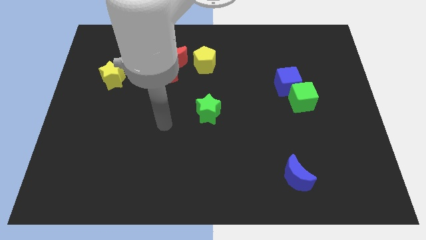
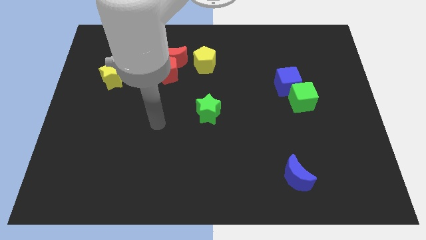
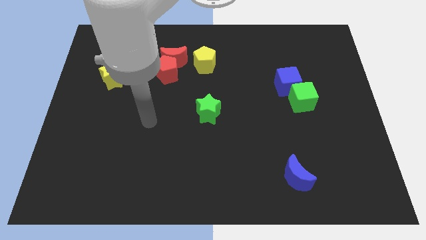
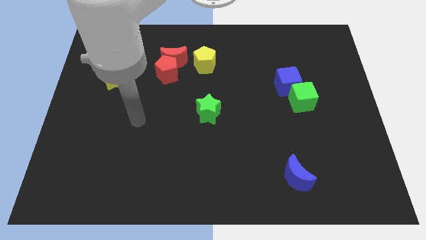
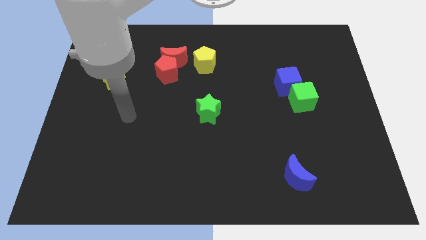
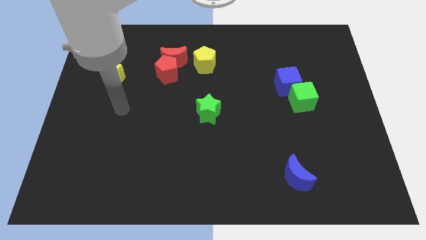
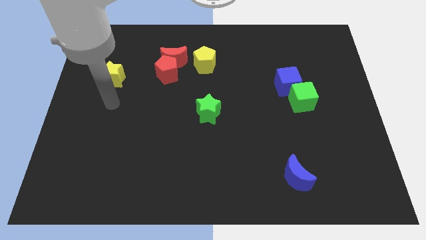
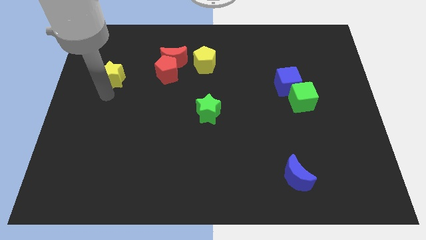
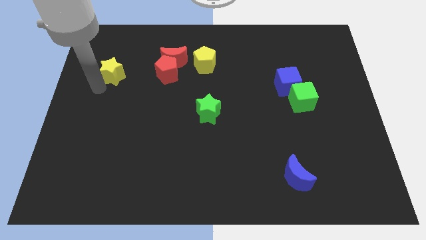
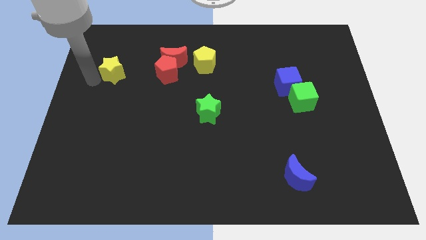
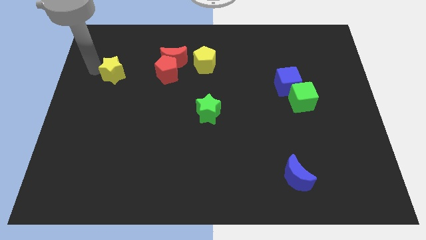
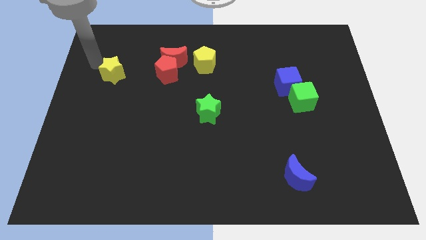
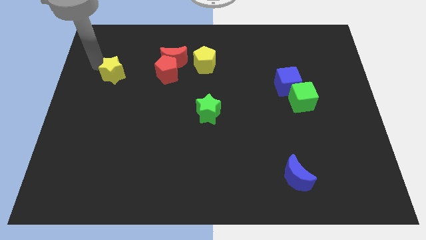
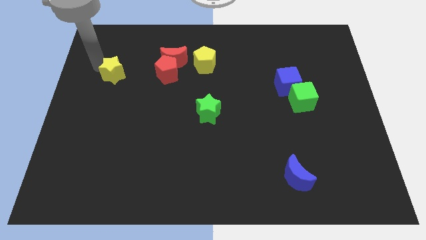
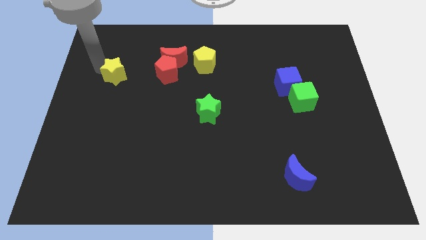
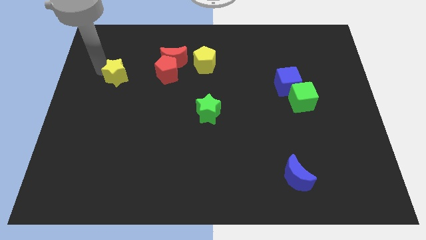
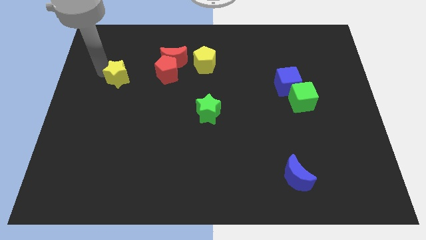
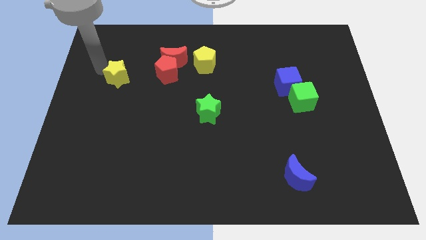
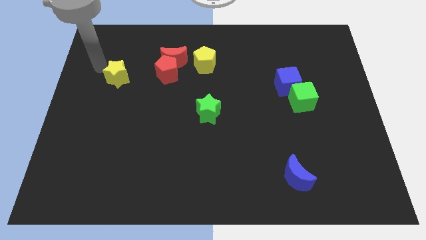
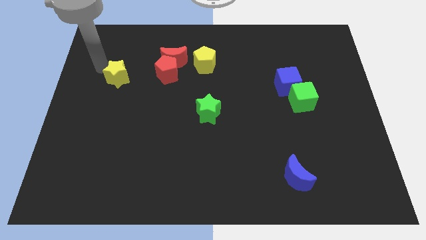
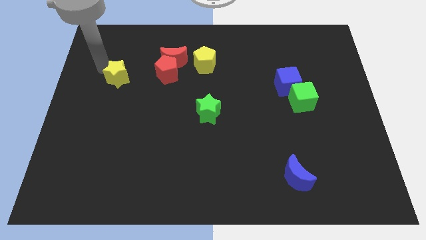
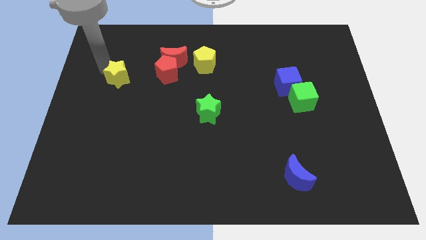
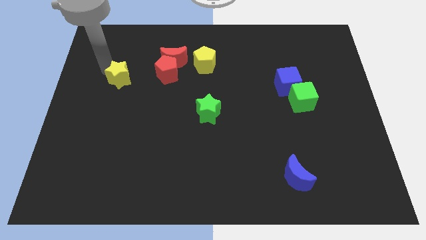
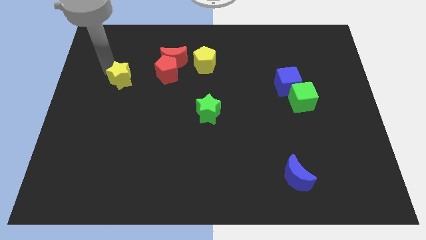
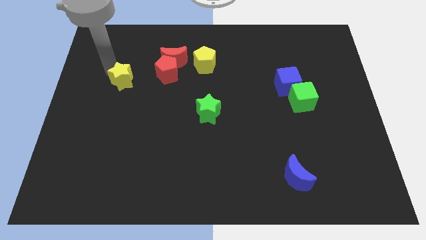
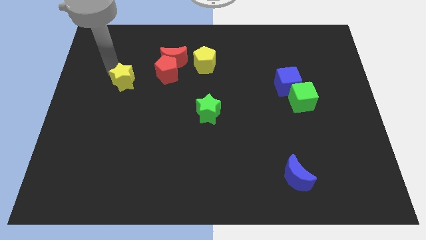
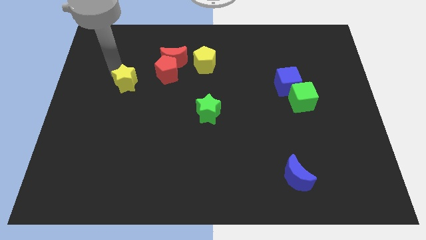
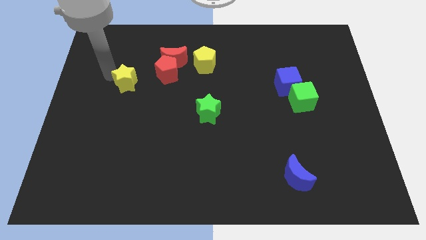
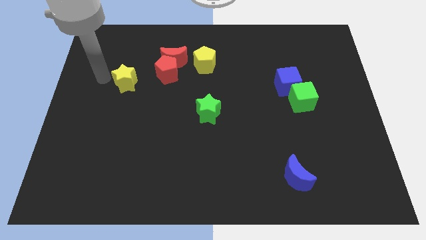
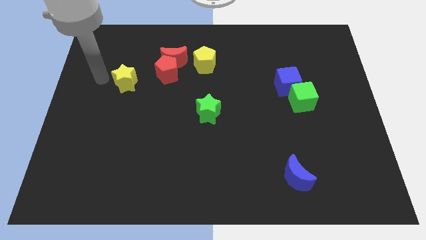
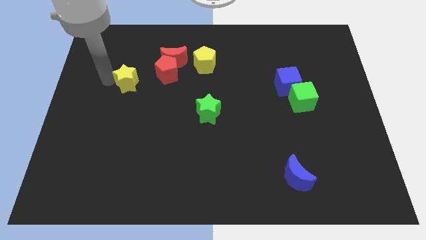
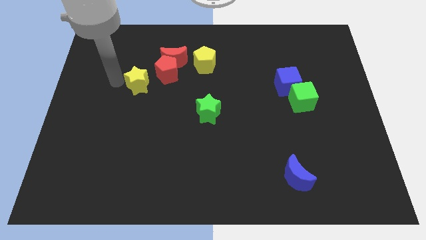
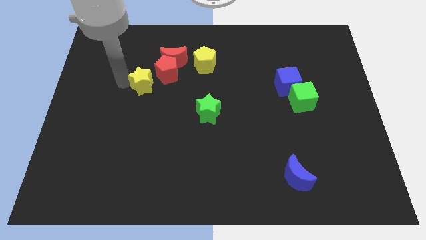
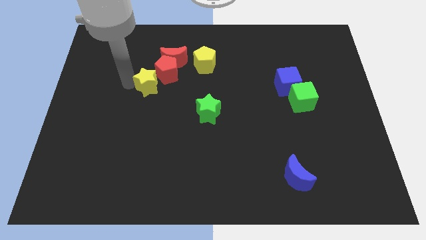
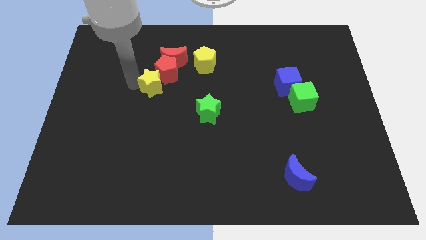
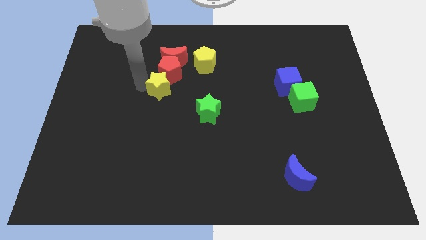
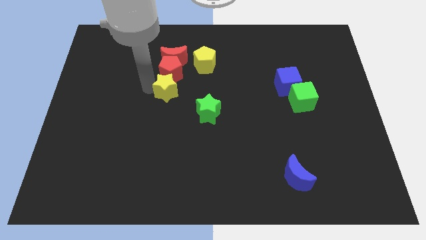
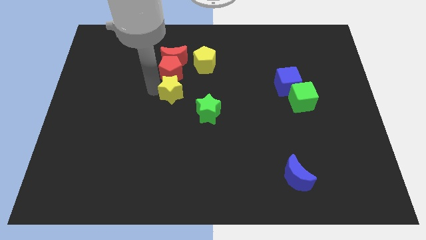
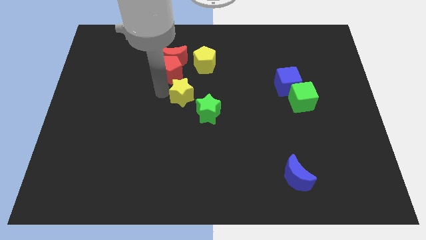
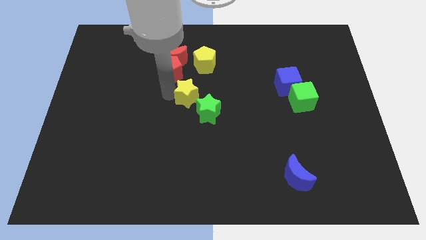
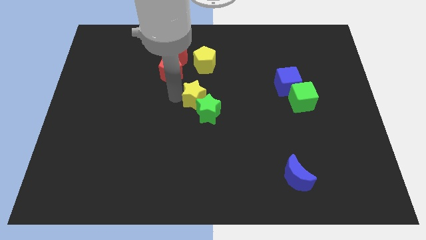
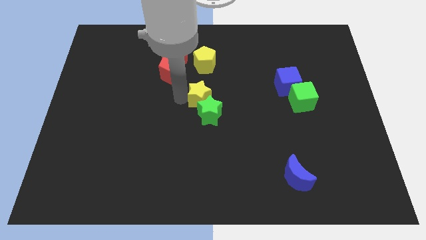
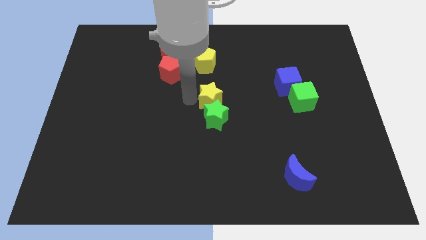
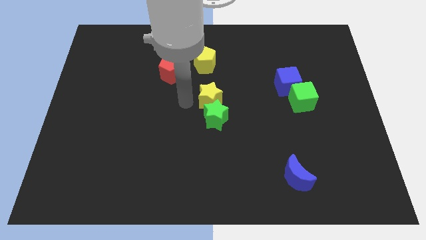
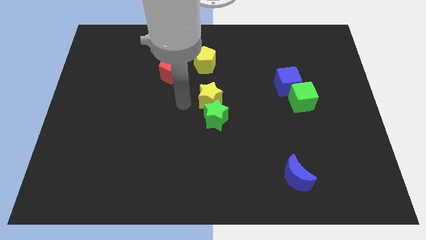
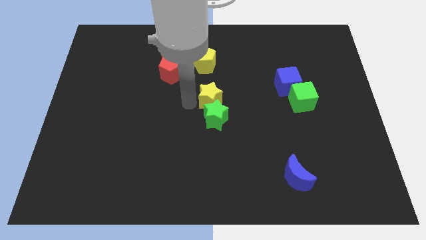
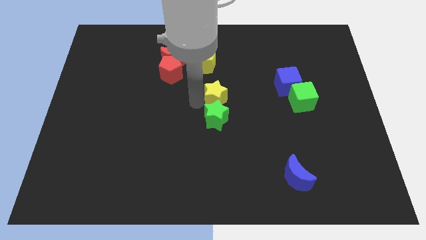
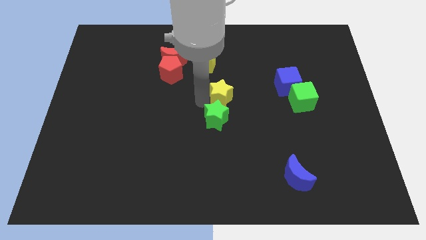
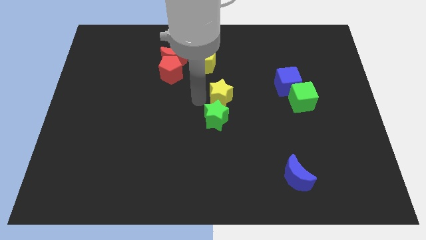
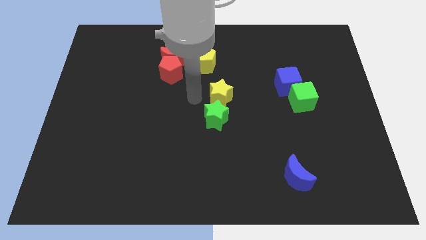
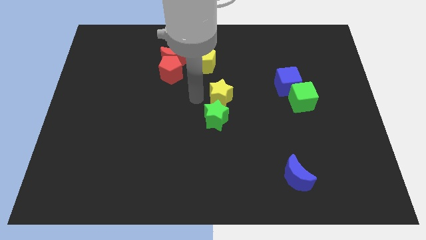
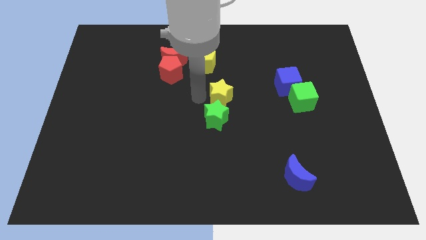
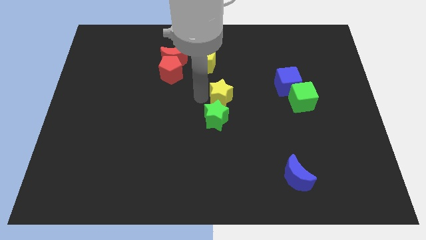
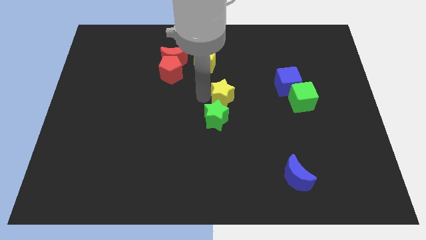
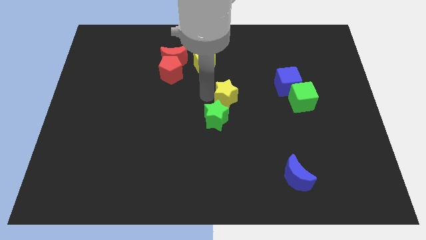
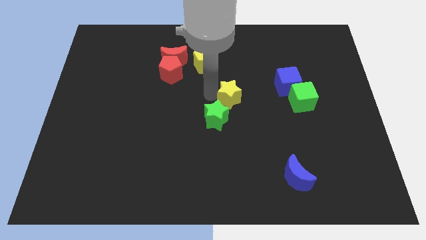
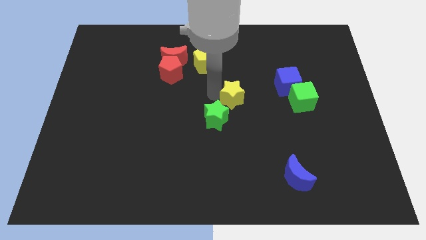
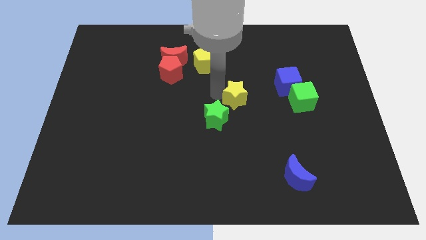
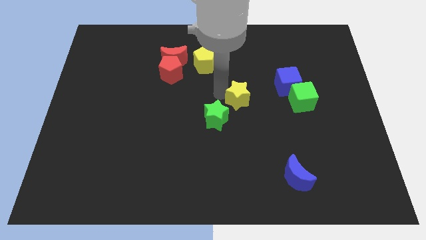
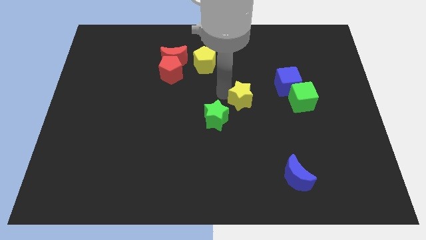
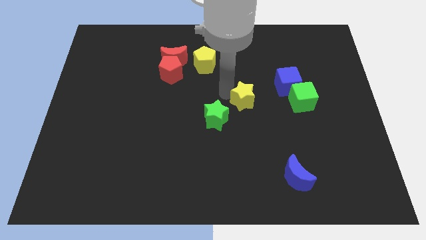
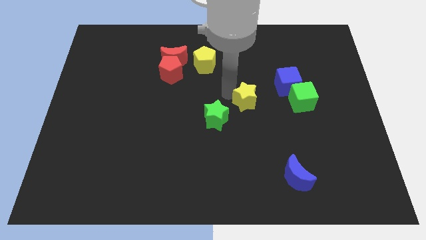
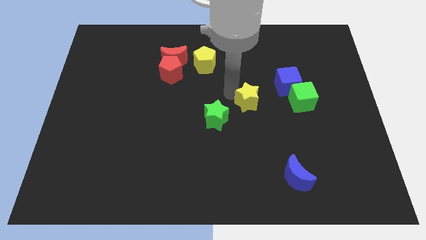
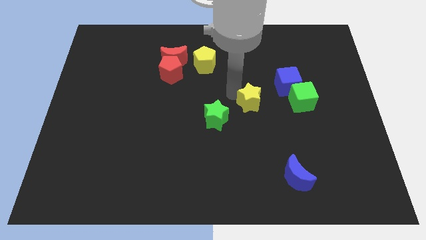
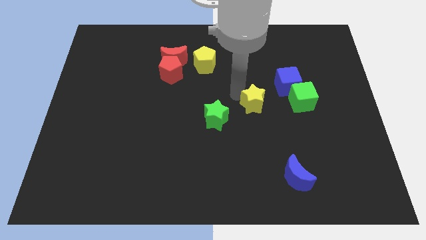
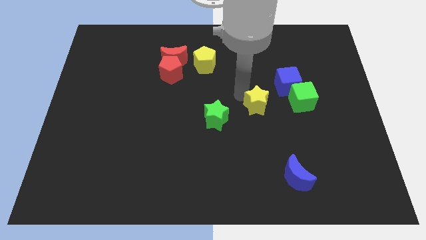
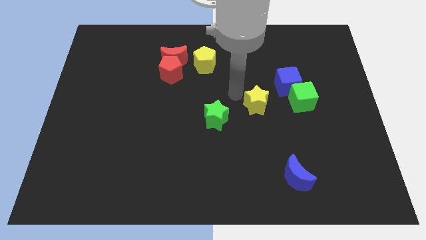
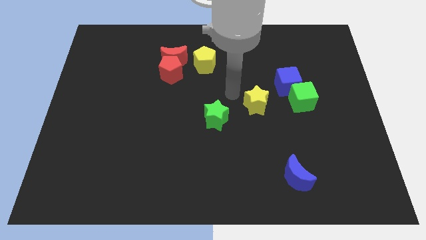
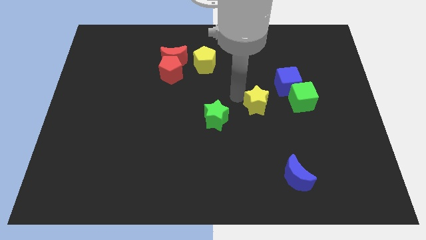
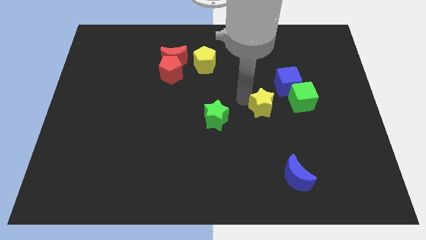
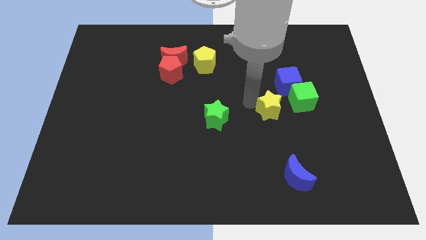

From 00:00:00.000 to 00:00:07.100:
put the yellow star to the bottom left side of the green cube

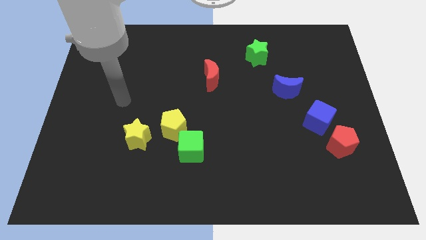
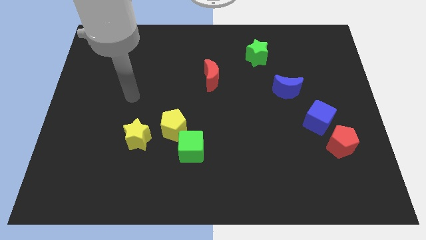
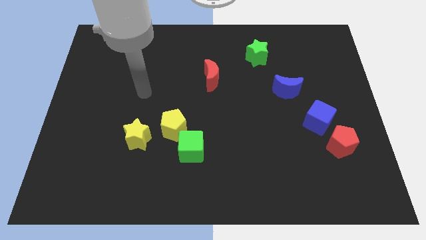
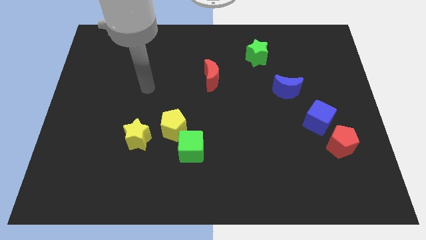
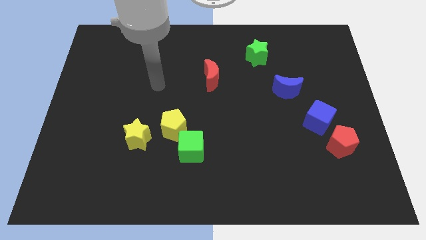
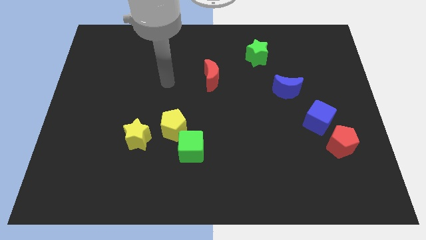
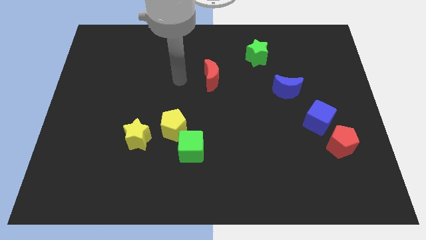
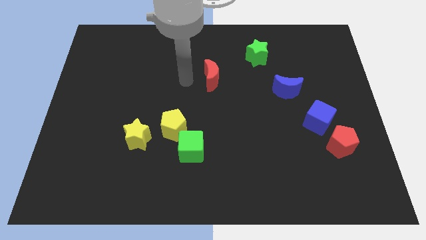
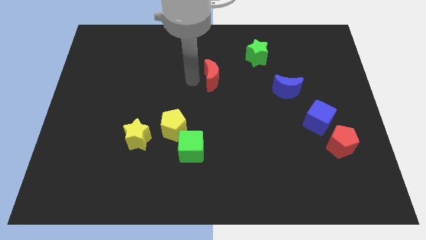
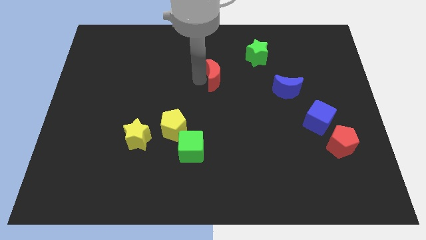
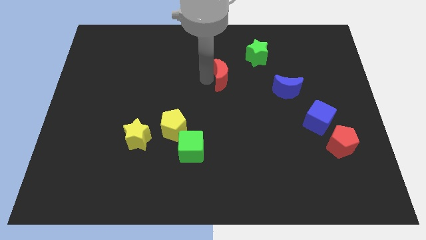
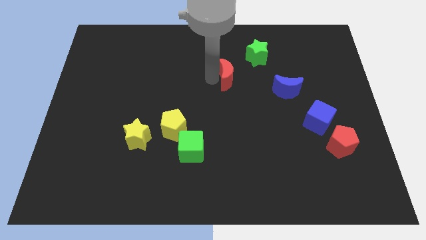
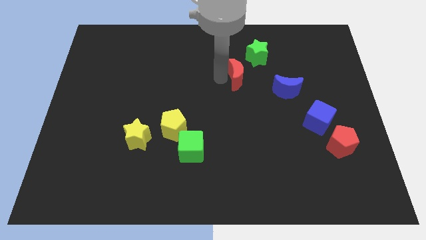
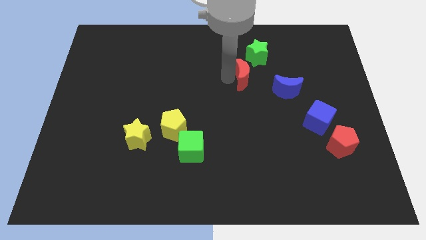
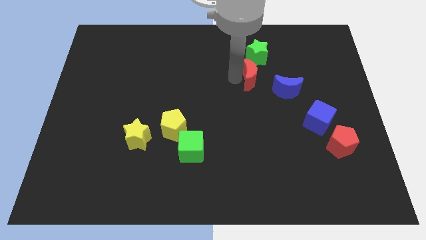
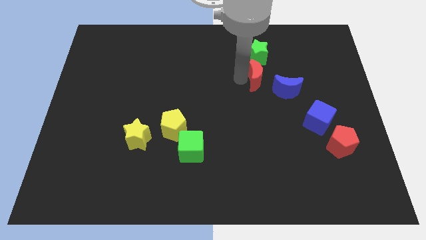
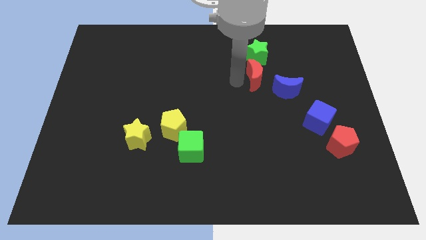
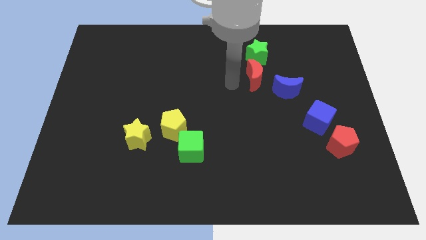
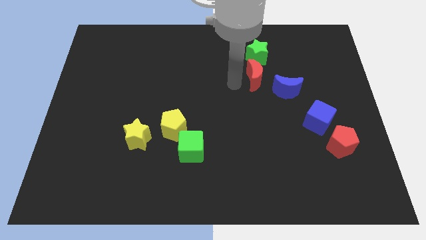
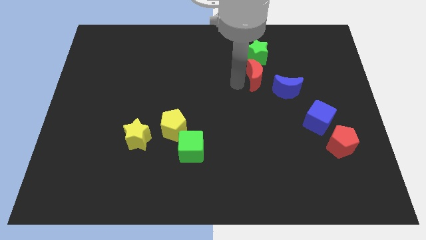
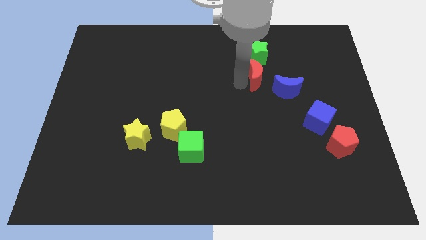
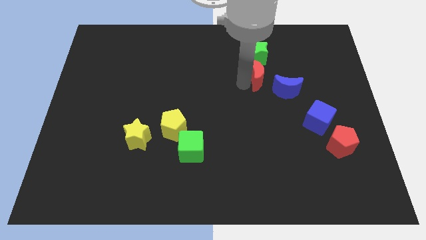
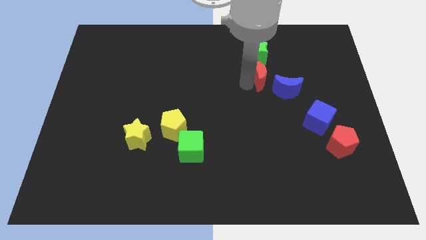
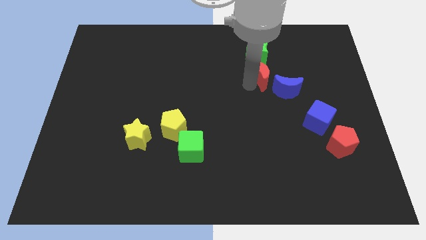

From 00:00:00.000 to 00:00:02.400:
slide the red moon to the bottom right of the green star
